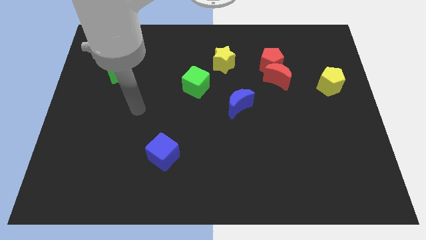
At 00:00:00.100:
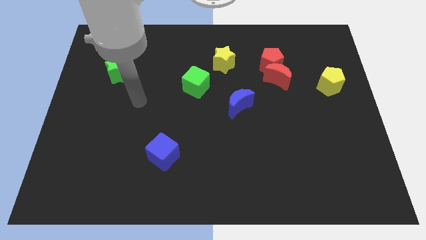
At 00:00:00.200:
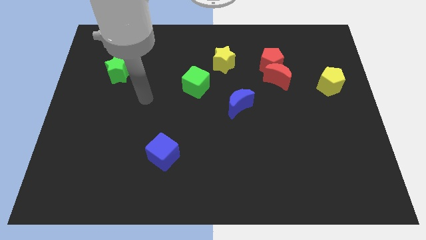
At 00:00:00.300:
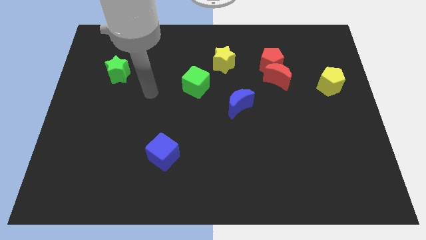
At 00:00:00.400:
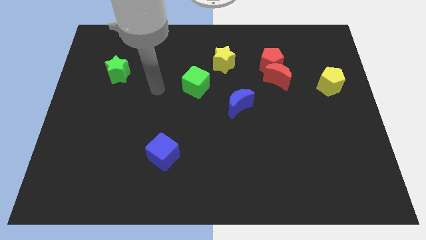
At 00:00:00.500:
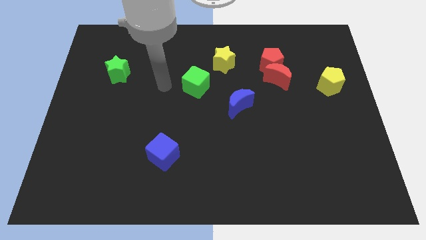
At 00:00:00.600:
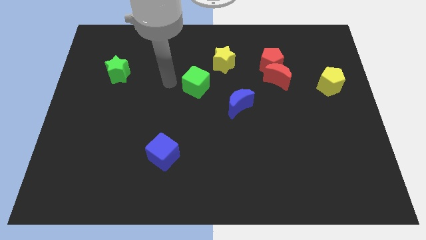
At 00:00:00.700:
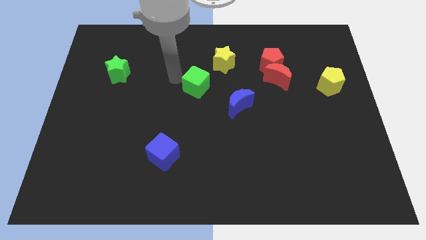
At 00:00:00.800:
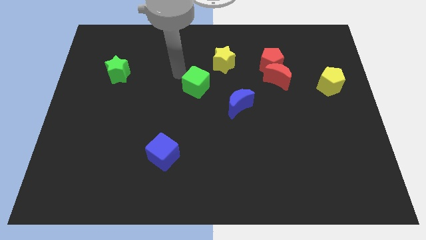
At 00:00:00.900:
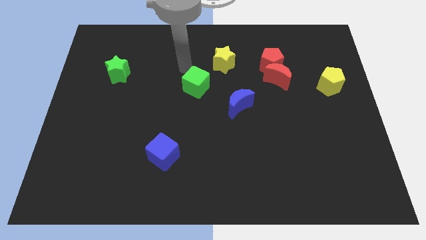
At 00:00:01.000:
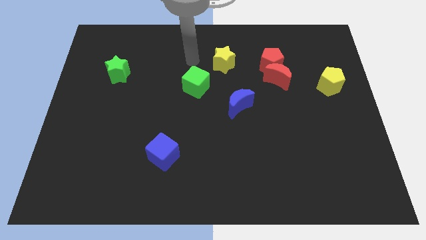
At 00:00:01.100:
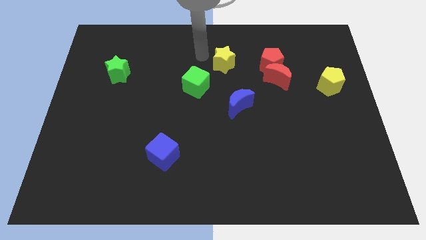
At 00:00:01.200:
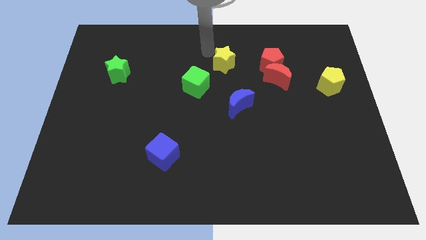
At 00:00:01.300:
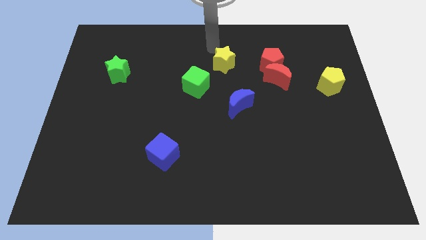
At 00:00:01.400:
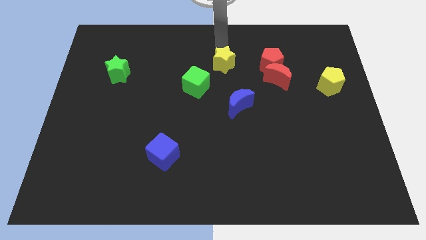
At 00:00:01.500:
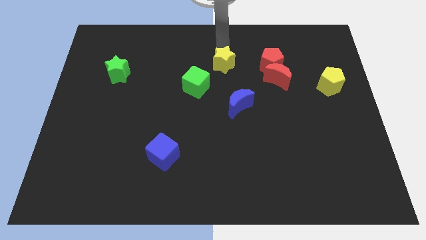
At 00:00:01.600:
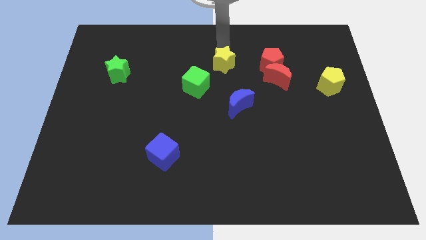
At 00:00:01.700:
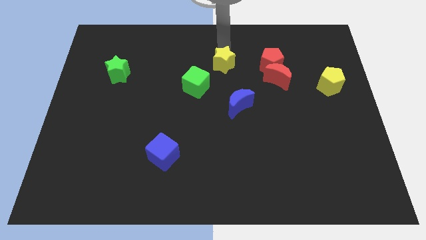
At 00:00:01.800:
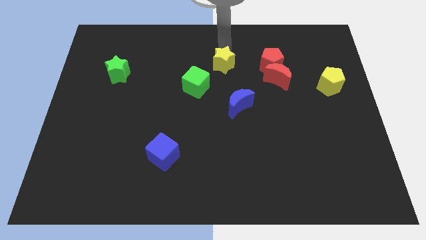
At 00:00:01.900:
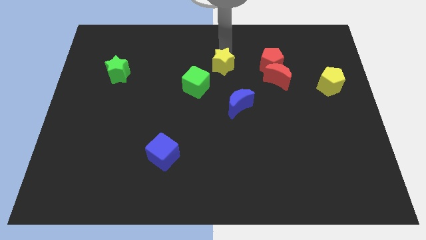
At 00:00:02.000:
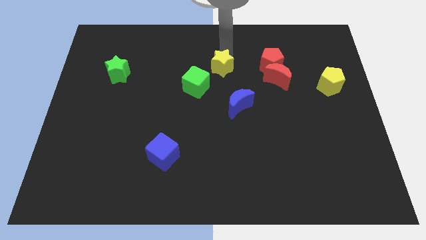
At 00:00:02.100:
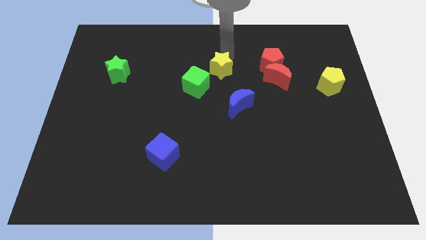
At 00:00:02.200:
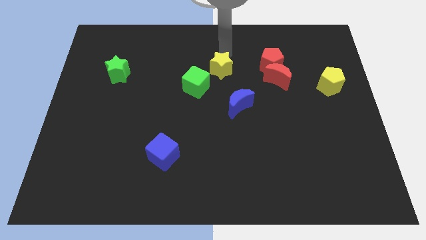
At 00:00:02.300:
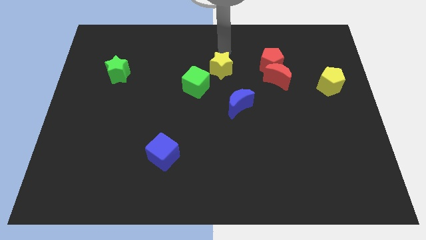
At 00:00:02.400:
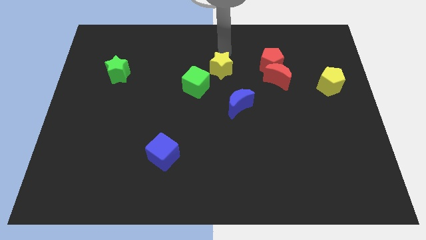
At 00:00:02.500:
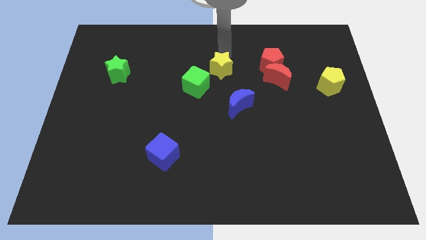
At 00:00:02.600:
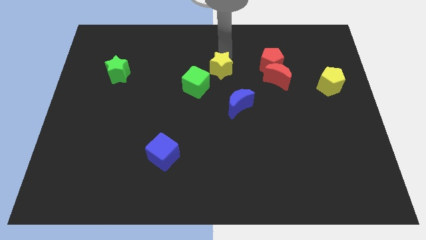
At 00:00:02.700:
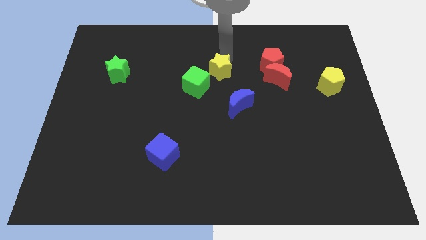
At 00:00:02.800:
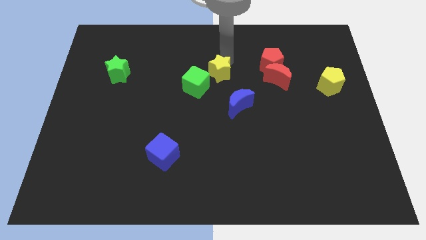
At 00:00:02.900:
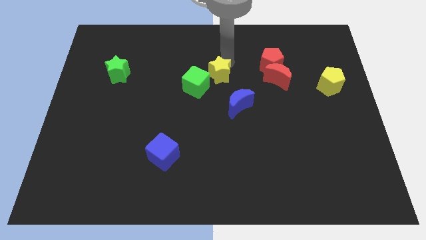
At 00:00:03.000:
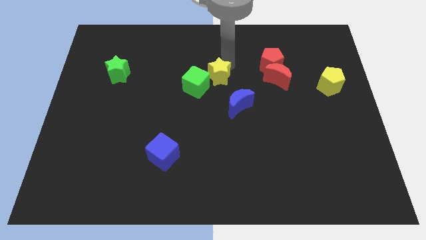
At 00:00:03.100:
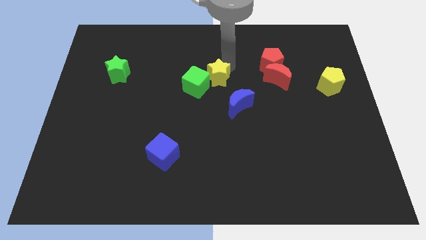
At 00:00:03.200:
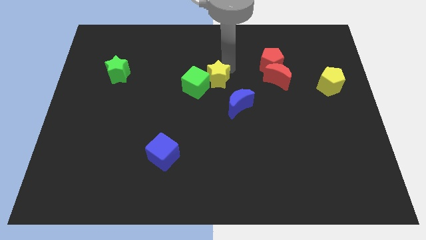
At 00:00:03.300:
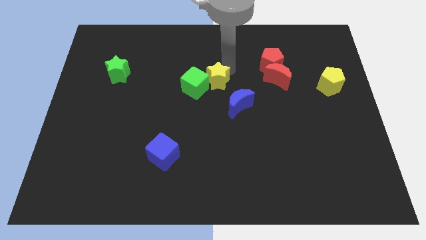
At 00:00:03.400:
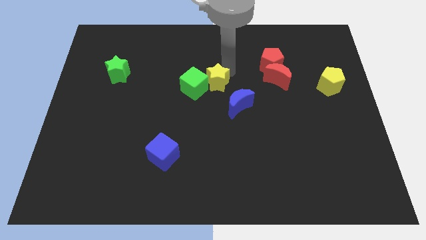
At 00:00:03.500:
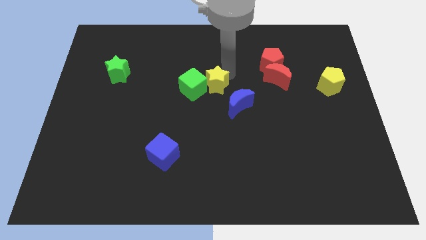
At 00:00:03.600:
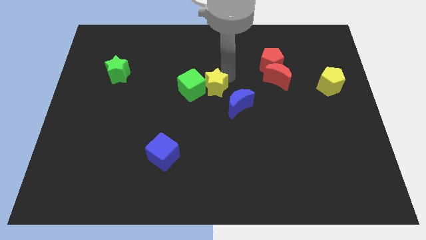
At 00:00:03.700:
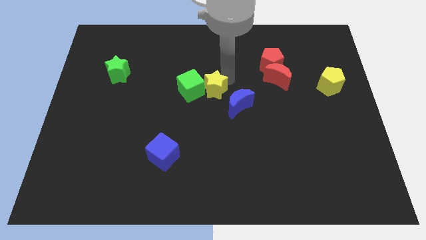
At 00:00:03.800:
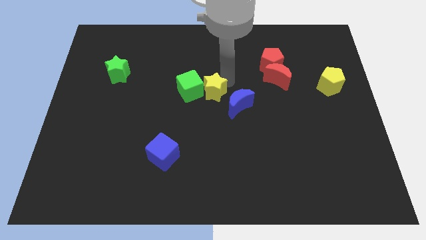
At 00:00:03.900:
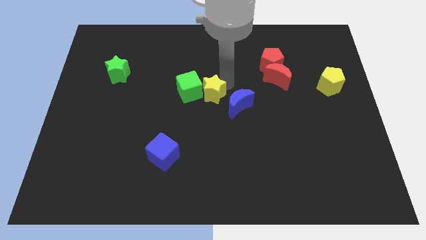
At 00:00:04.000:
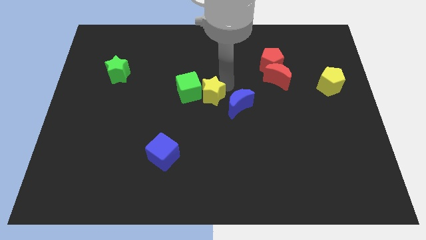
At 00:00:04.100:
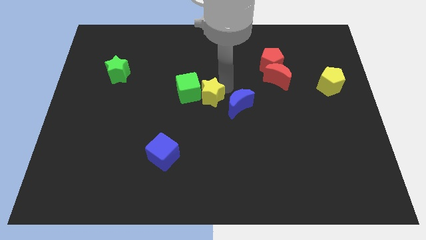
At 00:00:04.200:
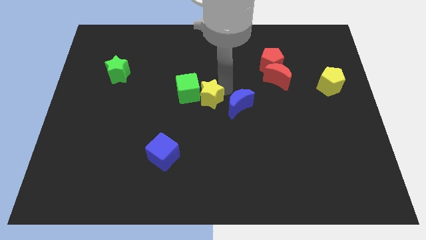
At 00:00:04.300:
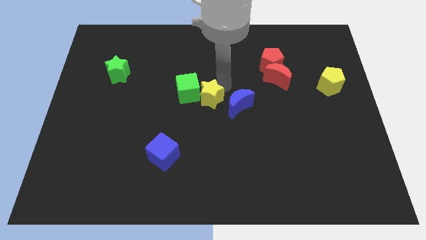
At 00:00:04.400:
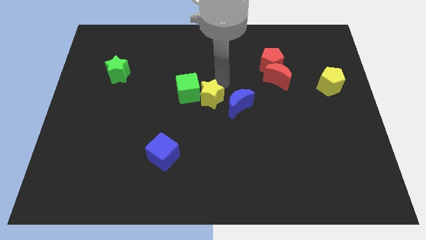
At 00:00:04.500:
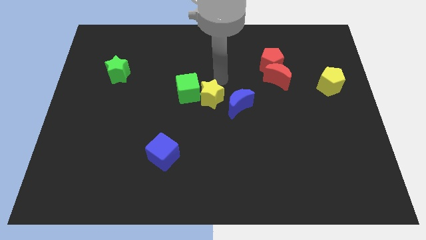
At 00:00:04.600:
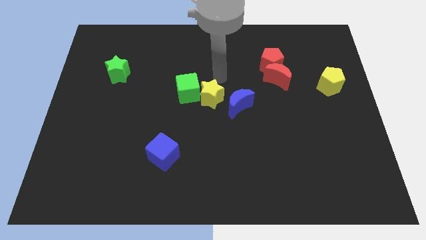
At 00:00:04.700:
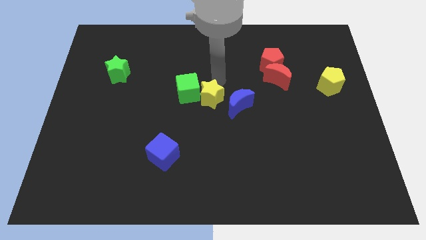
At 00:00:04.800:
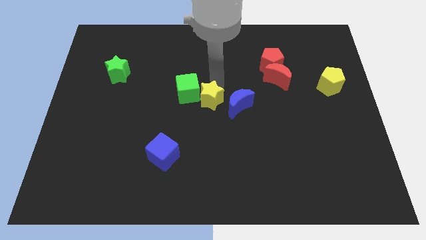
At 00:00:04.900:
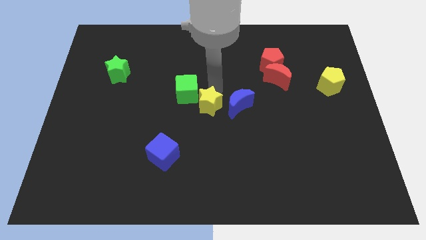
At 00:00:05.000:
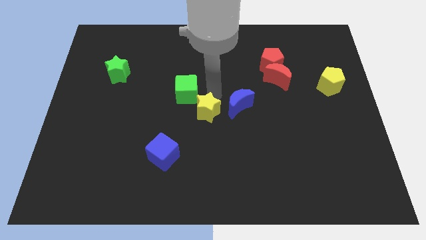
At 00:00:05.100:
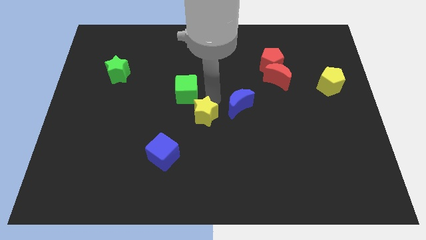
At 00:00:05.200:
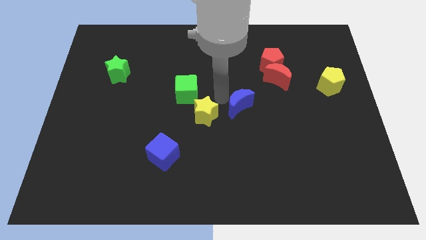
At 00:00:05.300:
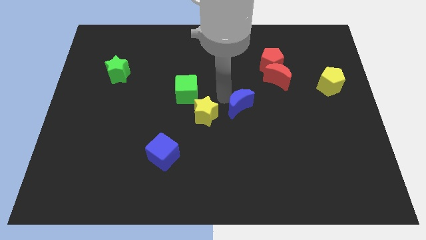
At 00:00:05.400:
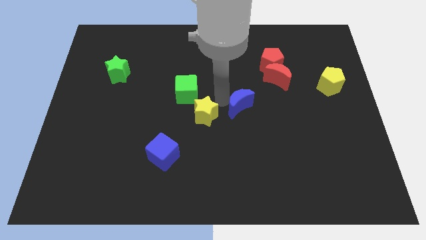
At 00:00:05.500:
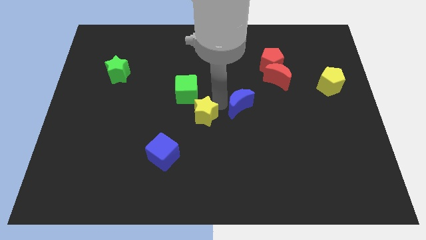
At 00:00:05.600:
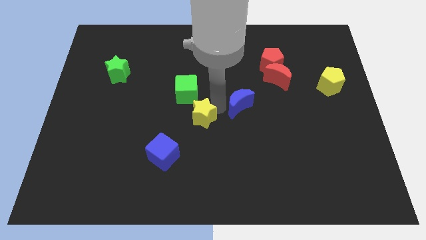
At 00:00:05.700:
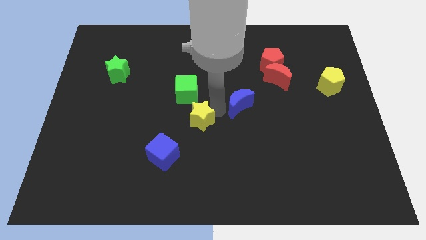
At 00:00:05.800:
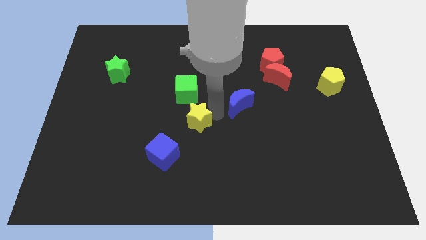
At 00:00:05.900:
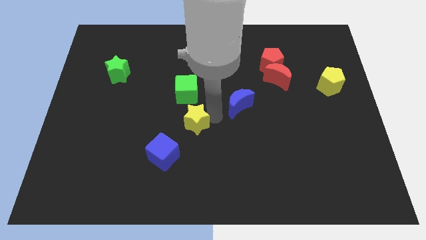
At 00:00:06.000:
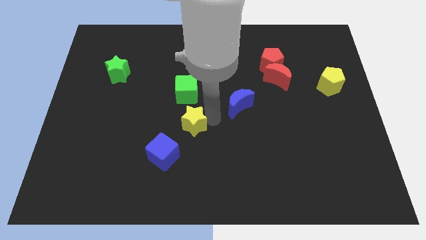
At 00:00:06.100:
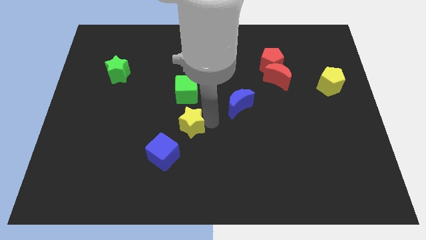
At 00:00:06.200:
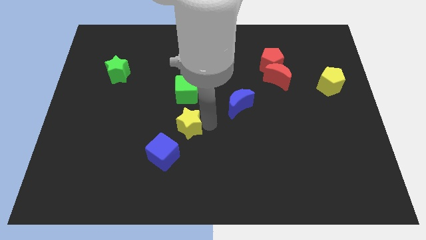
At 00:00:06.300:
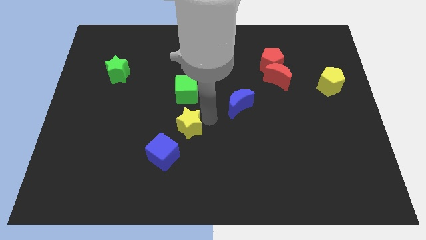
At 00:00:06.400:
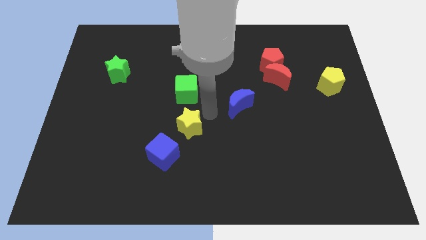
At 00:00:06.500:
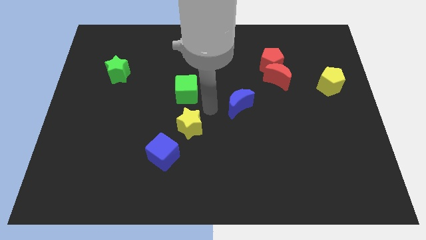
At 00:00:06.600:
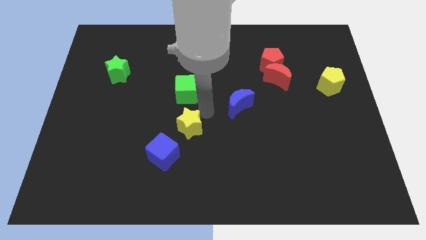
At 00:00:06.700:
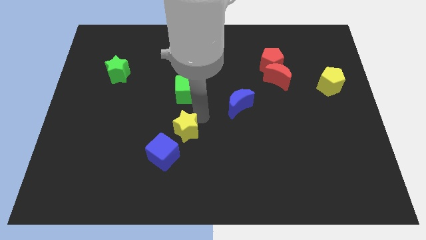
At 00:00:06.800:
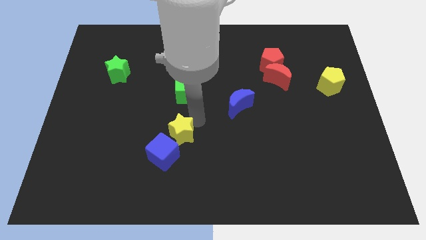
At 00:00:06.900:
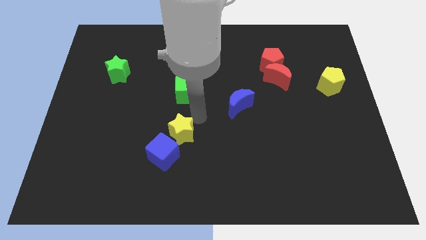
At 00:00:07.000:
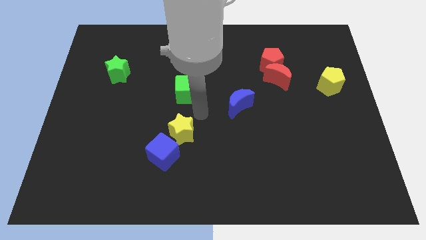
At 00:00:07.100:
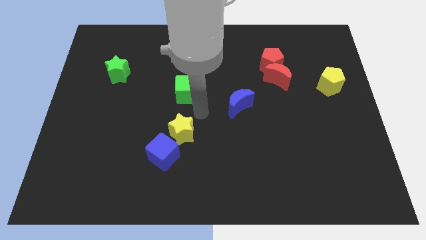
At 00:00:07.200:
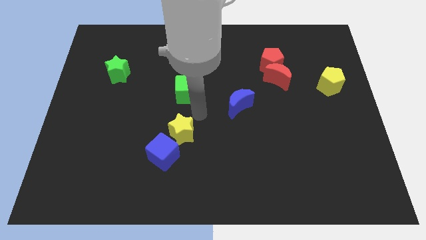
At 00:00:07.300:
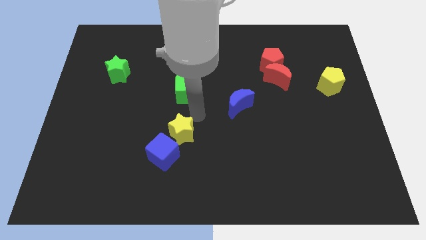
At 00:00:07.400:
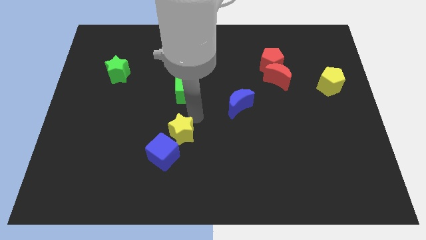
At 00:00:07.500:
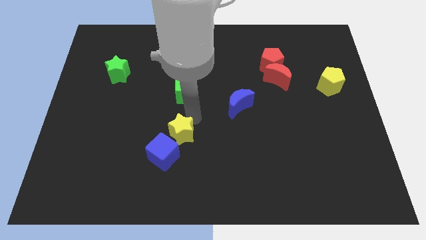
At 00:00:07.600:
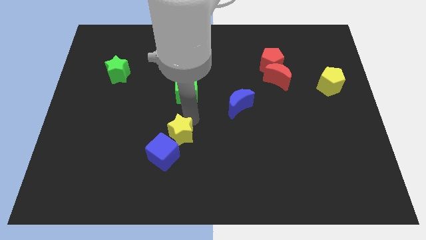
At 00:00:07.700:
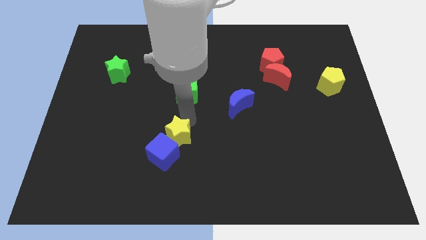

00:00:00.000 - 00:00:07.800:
push the yellow star close to the blue cube

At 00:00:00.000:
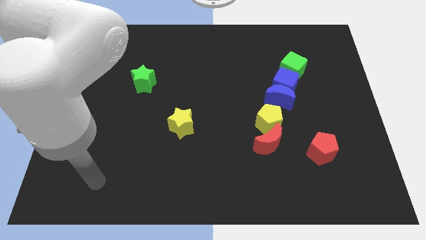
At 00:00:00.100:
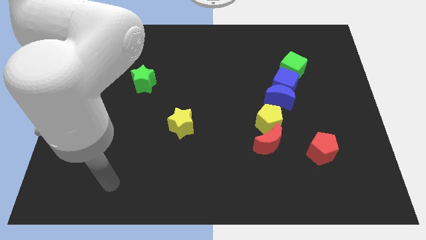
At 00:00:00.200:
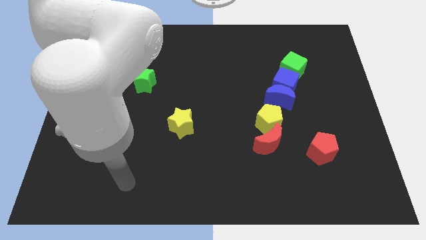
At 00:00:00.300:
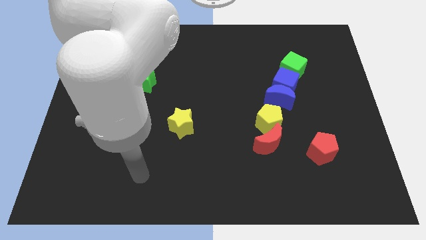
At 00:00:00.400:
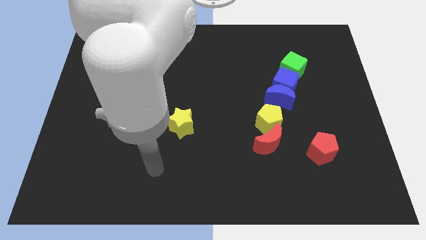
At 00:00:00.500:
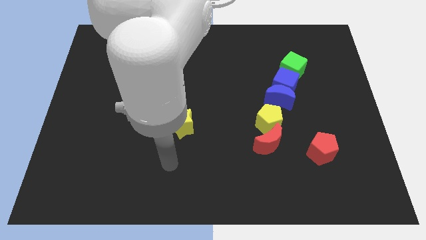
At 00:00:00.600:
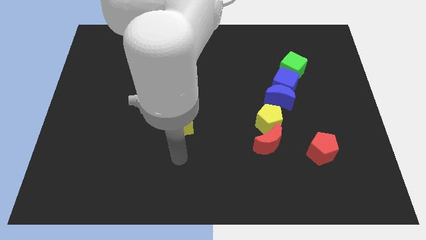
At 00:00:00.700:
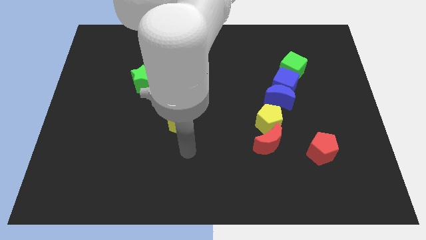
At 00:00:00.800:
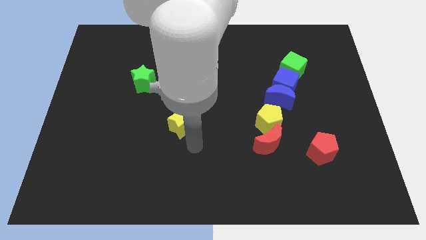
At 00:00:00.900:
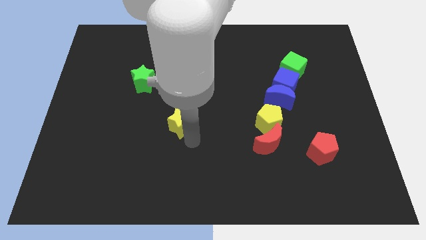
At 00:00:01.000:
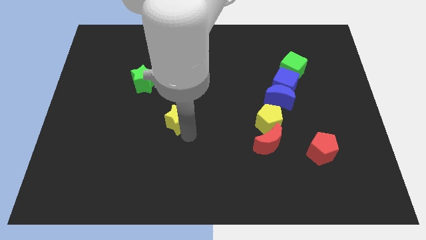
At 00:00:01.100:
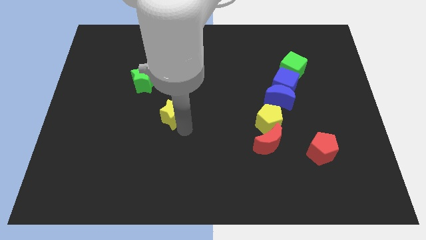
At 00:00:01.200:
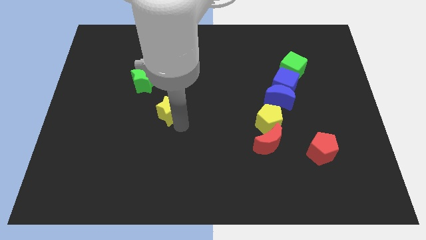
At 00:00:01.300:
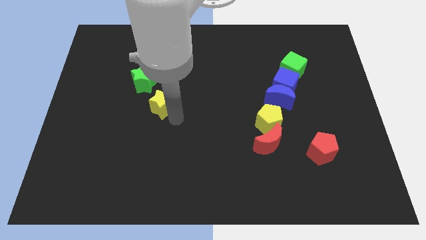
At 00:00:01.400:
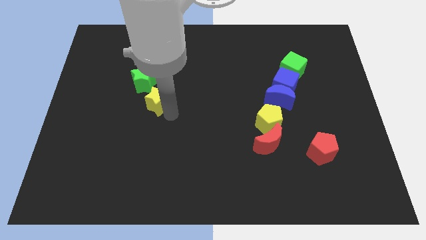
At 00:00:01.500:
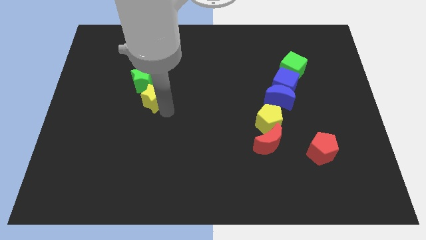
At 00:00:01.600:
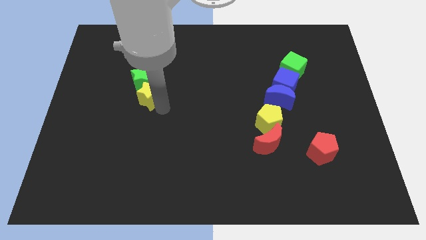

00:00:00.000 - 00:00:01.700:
move the yellow star close to the green star
